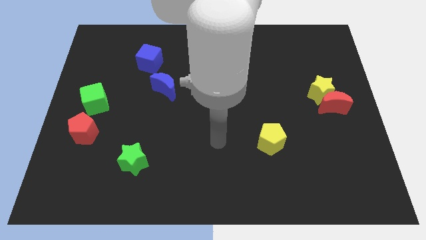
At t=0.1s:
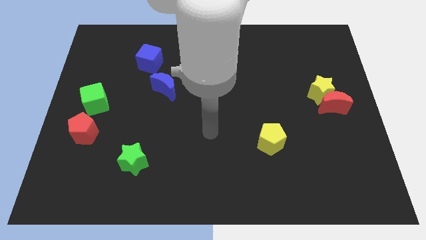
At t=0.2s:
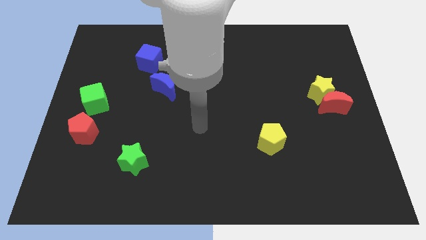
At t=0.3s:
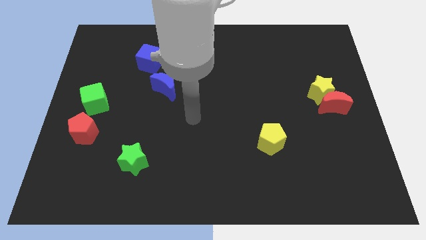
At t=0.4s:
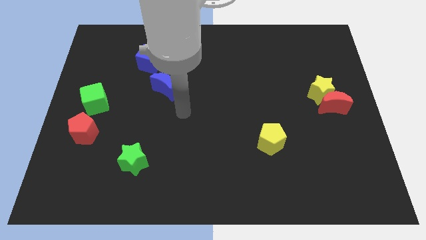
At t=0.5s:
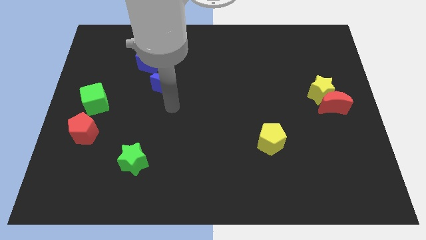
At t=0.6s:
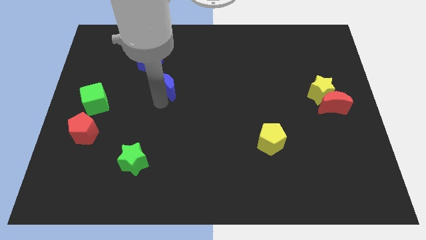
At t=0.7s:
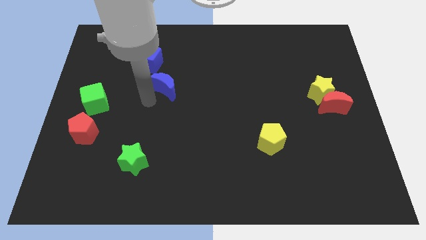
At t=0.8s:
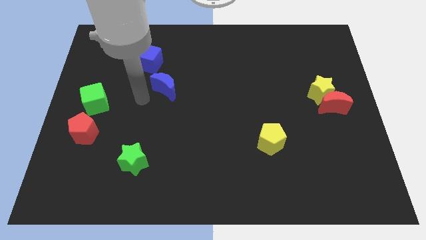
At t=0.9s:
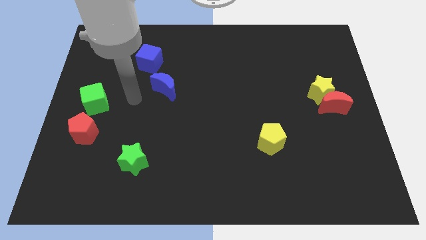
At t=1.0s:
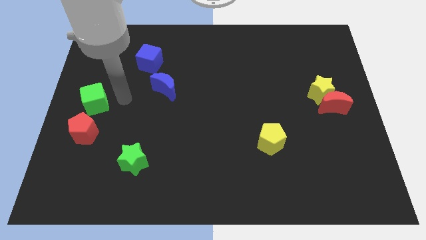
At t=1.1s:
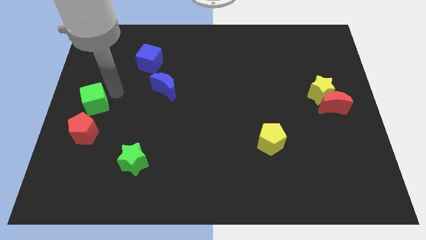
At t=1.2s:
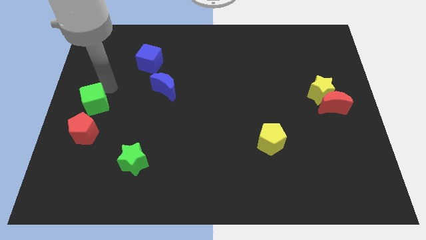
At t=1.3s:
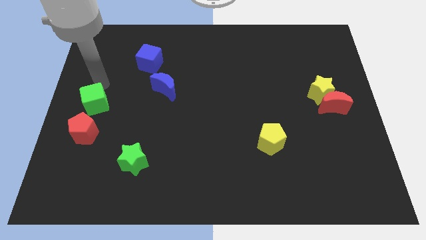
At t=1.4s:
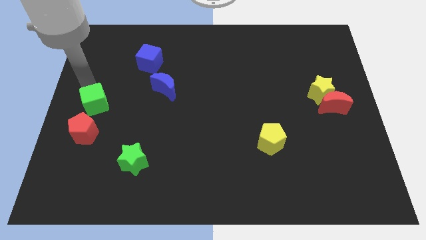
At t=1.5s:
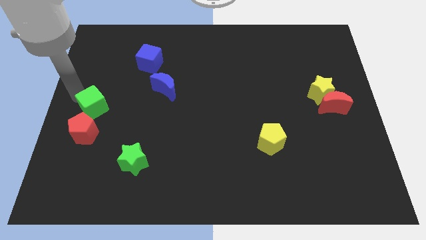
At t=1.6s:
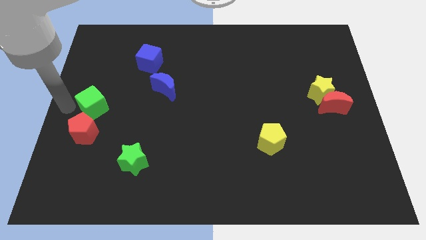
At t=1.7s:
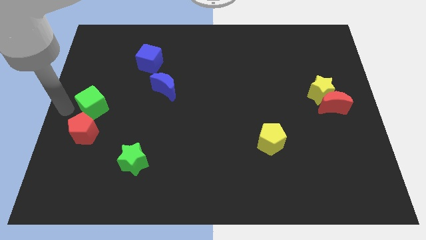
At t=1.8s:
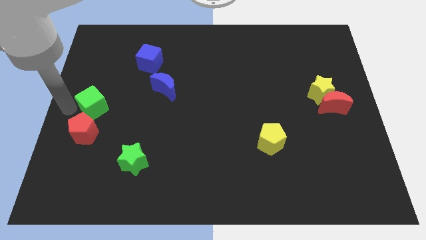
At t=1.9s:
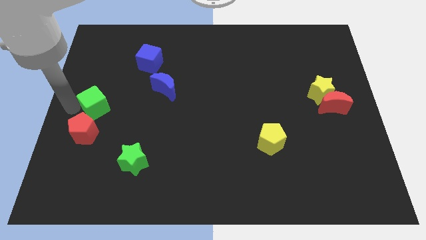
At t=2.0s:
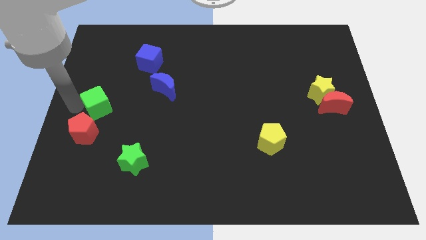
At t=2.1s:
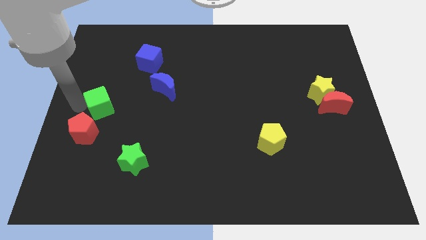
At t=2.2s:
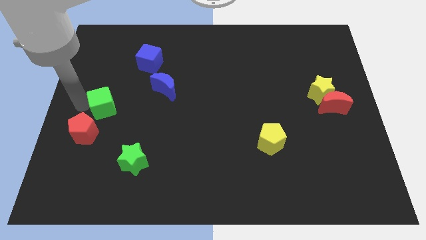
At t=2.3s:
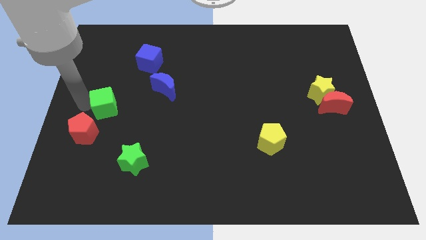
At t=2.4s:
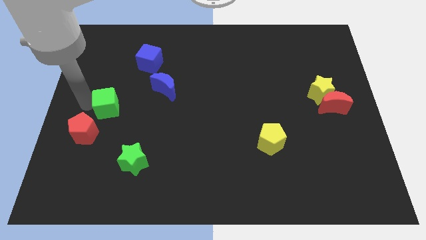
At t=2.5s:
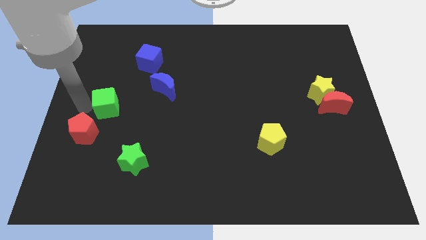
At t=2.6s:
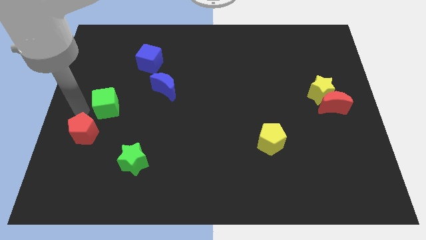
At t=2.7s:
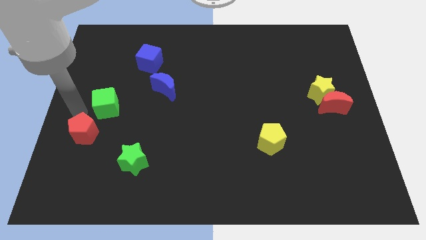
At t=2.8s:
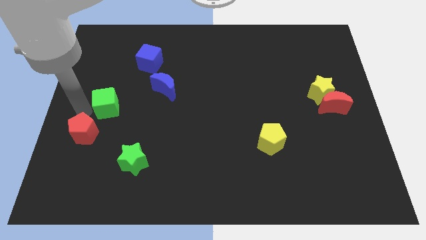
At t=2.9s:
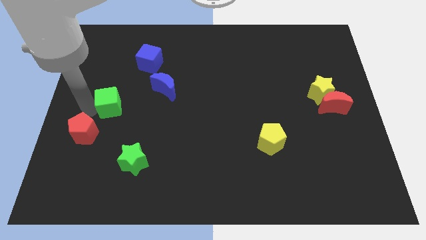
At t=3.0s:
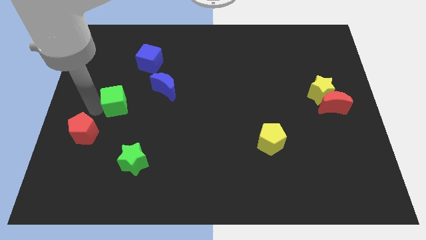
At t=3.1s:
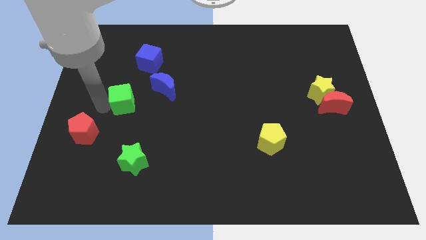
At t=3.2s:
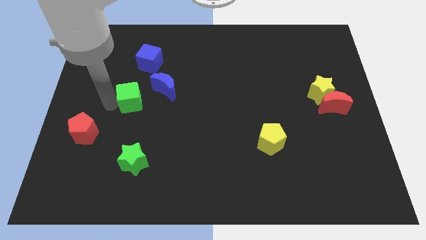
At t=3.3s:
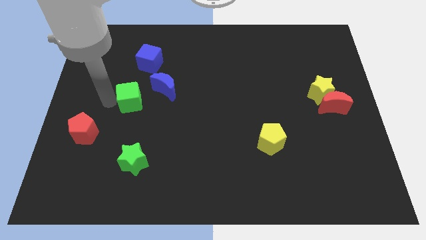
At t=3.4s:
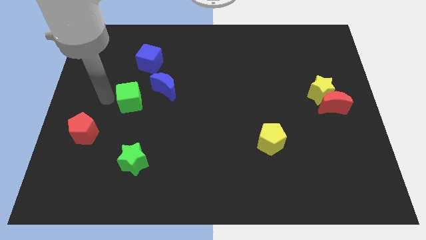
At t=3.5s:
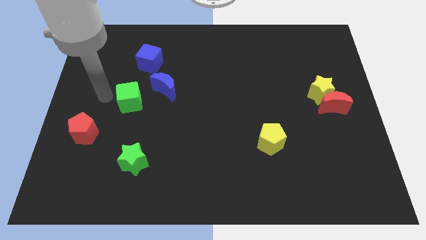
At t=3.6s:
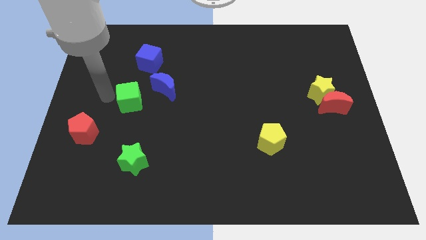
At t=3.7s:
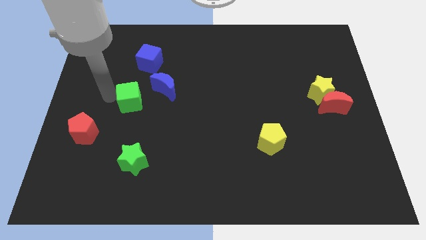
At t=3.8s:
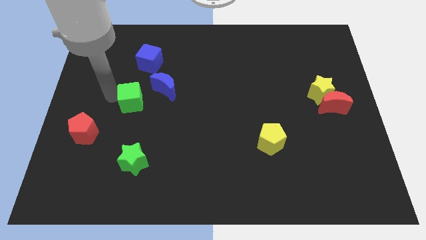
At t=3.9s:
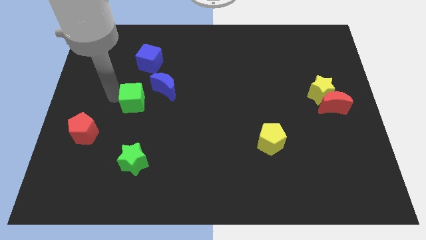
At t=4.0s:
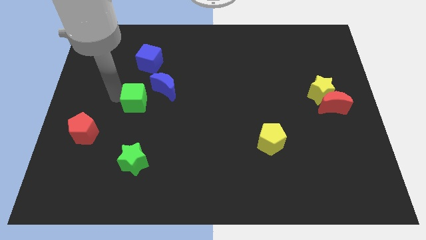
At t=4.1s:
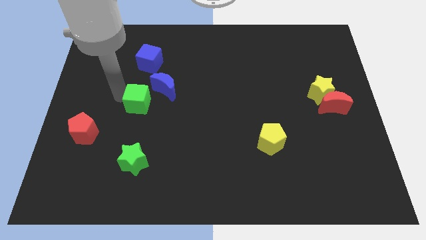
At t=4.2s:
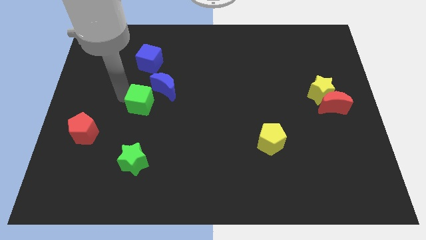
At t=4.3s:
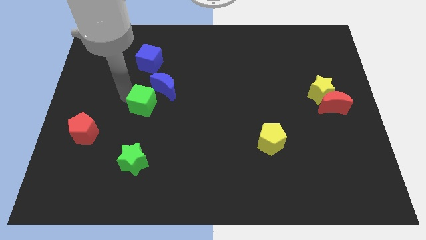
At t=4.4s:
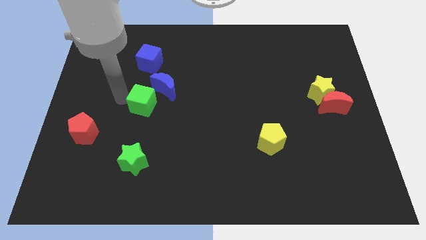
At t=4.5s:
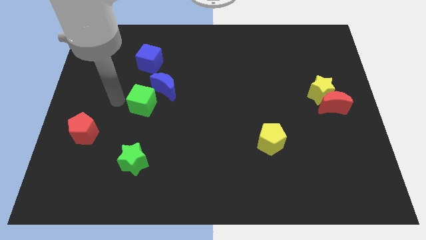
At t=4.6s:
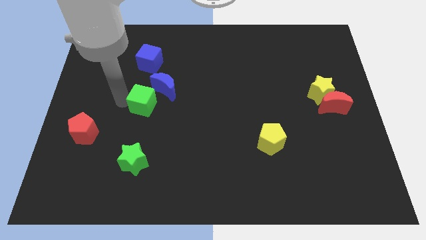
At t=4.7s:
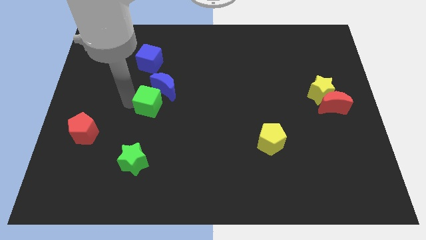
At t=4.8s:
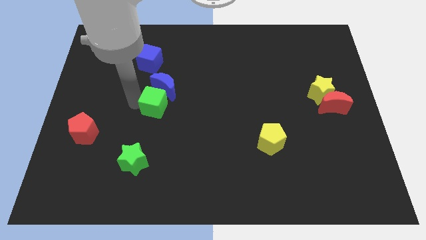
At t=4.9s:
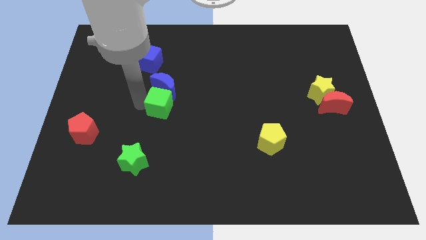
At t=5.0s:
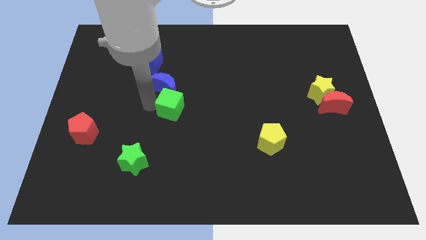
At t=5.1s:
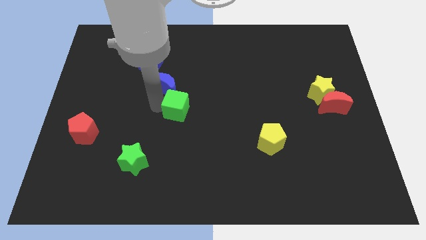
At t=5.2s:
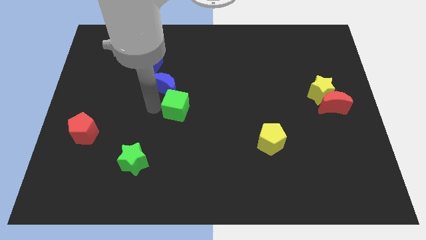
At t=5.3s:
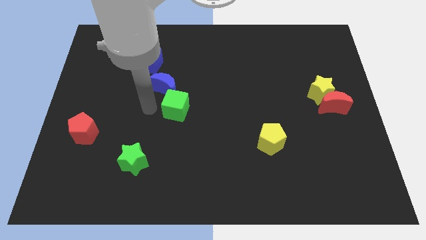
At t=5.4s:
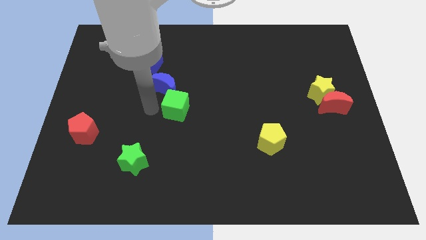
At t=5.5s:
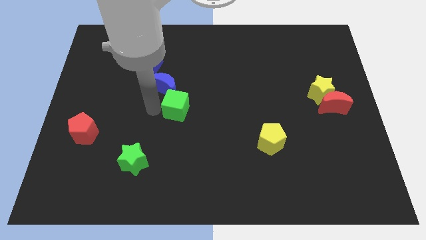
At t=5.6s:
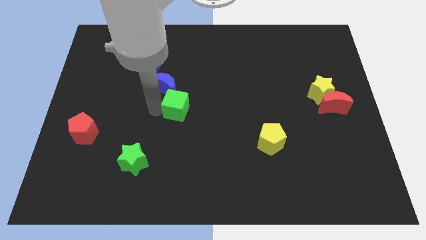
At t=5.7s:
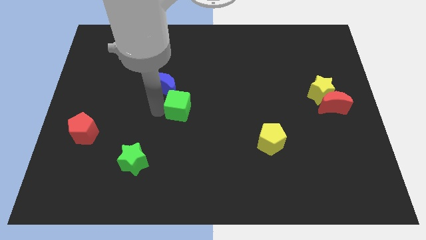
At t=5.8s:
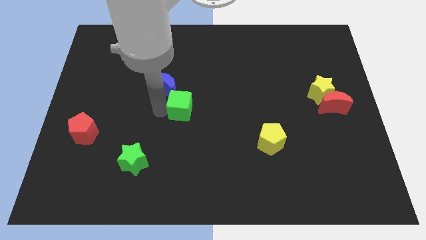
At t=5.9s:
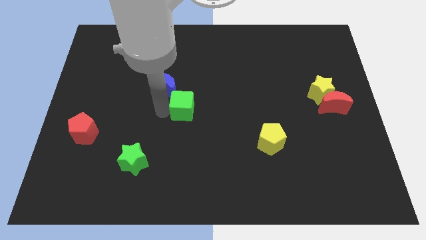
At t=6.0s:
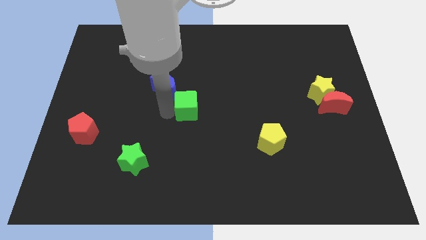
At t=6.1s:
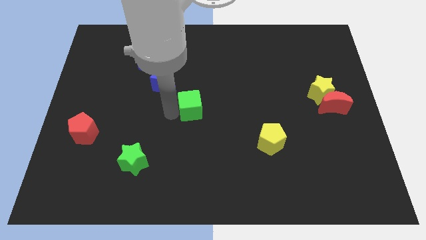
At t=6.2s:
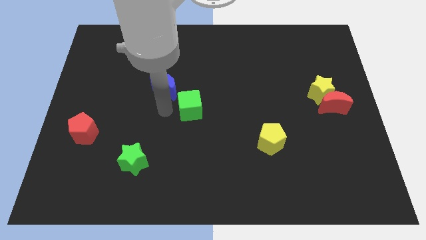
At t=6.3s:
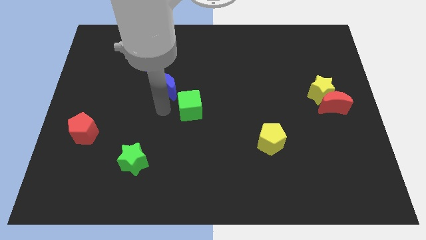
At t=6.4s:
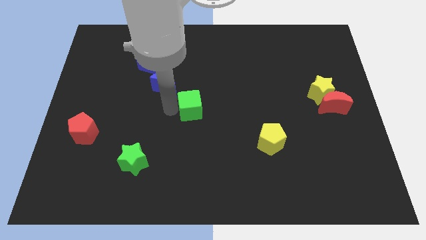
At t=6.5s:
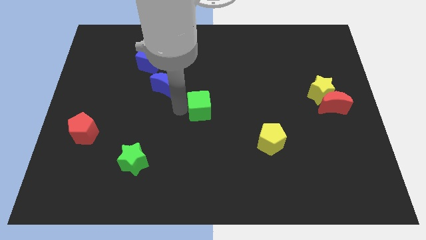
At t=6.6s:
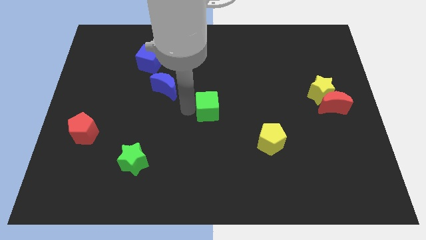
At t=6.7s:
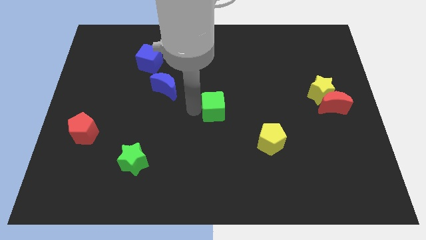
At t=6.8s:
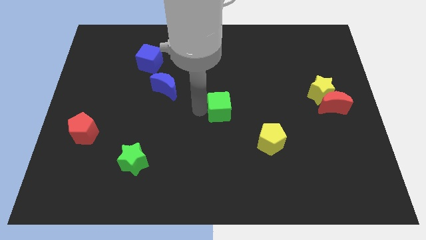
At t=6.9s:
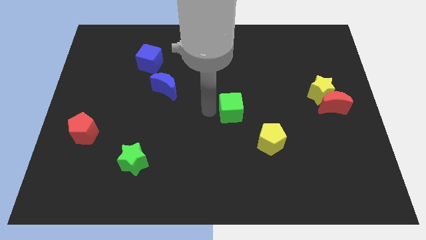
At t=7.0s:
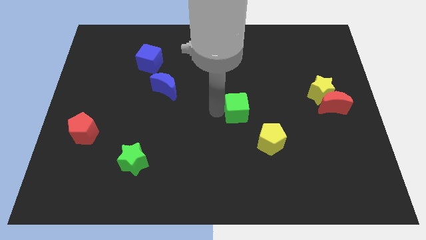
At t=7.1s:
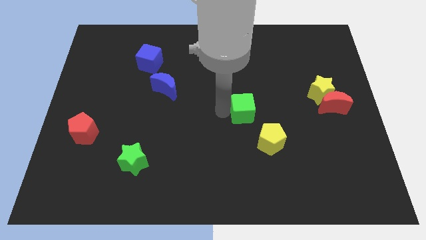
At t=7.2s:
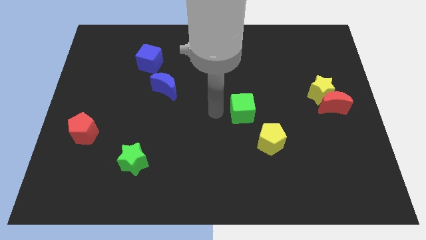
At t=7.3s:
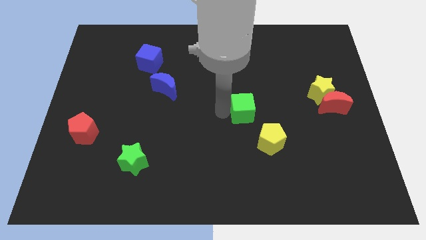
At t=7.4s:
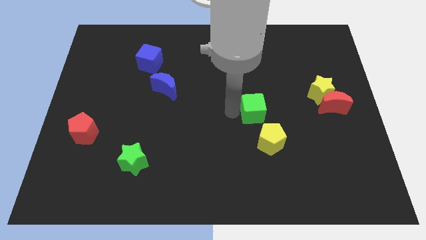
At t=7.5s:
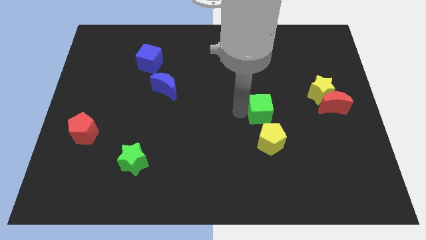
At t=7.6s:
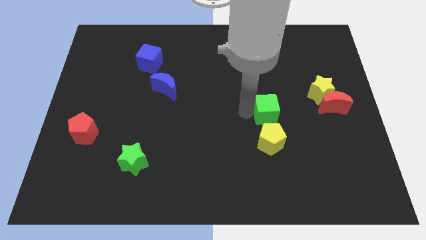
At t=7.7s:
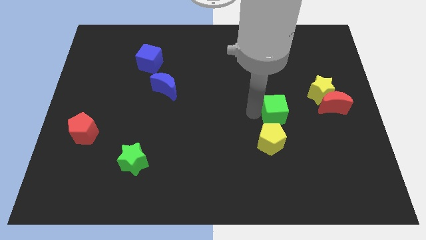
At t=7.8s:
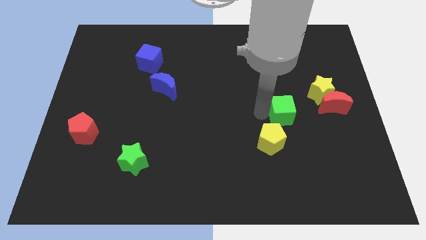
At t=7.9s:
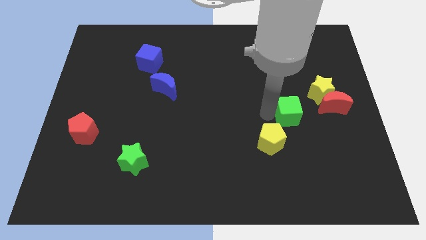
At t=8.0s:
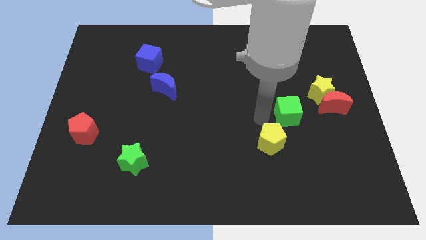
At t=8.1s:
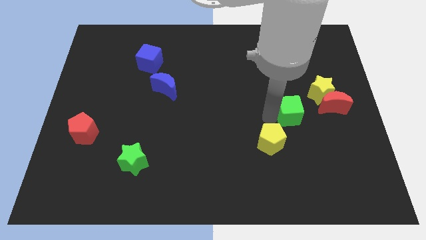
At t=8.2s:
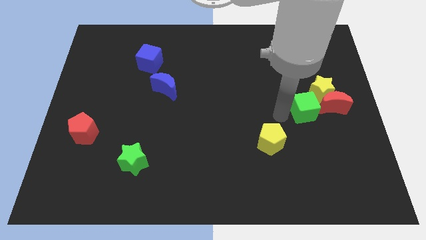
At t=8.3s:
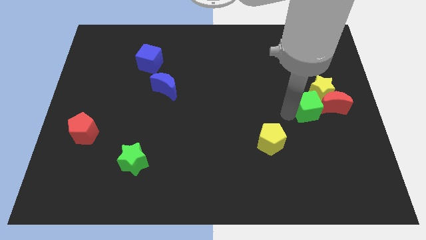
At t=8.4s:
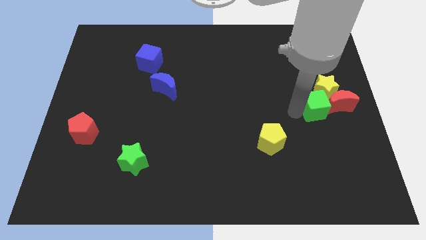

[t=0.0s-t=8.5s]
push the green cube next to the red moon
